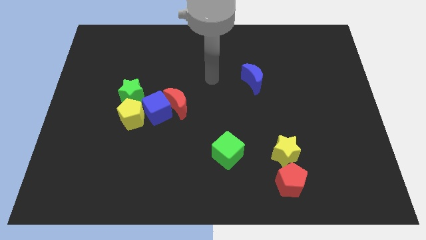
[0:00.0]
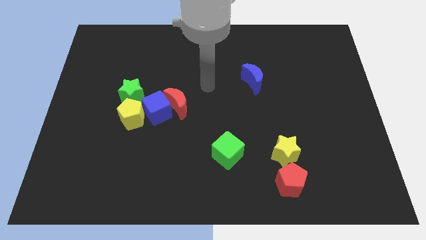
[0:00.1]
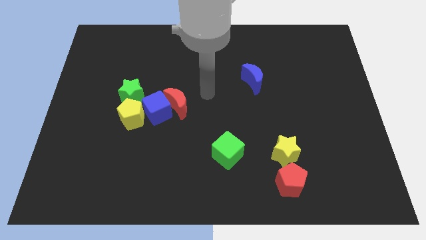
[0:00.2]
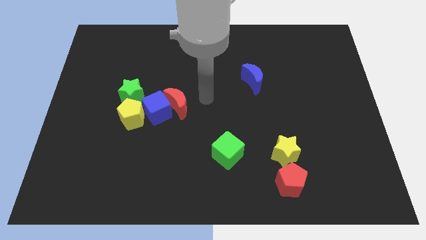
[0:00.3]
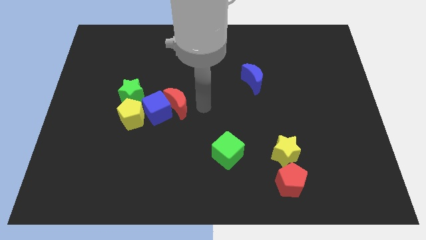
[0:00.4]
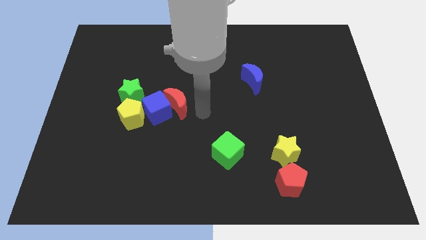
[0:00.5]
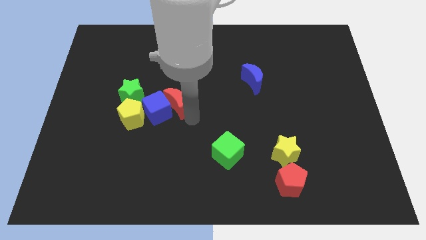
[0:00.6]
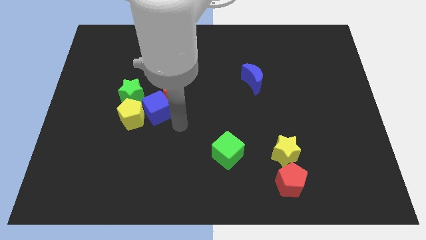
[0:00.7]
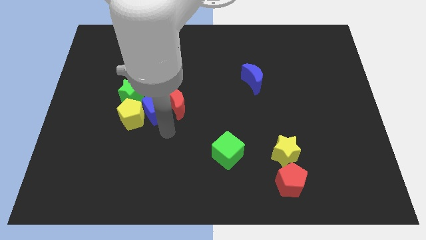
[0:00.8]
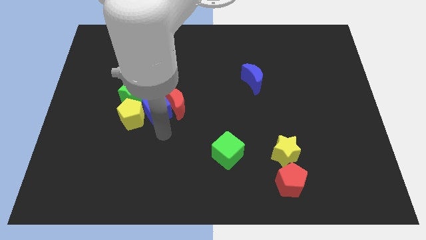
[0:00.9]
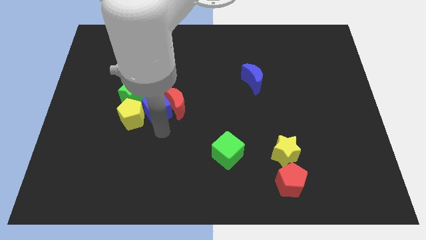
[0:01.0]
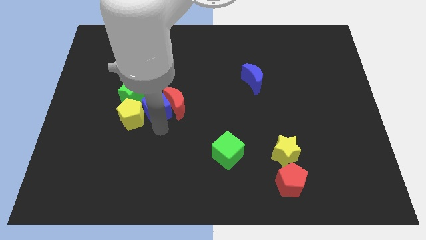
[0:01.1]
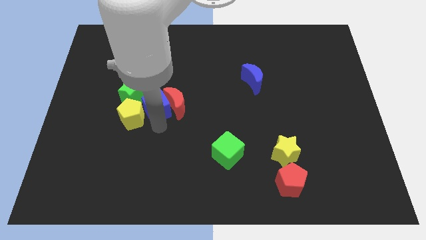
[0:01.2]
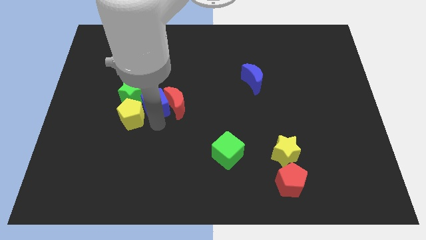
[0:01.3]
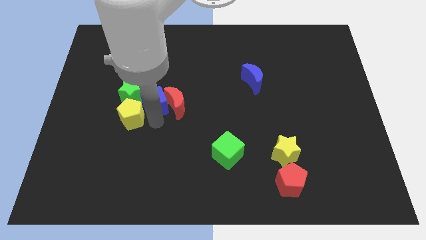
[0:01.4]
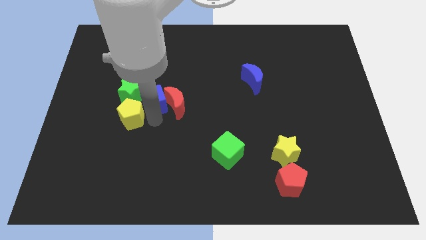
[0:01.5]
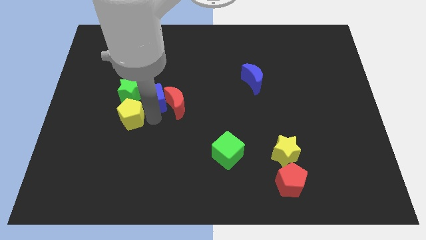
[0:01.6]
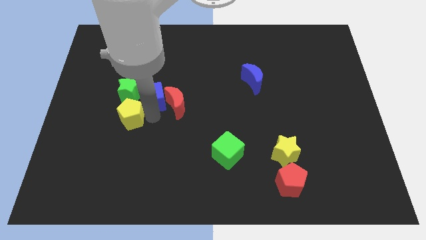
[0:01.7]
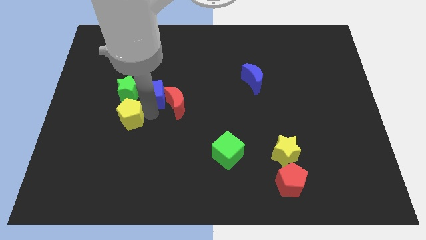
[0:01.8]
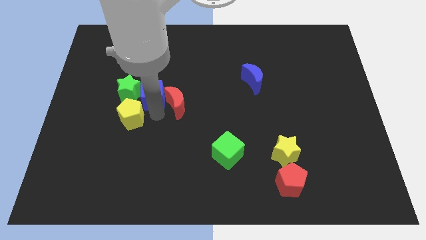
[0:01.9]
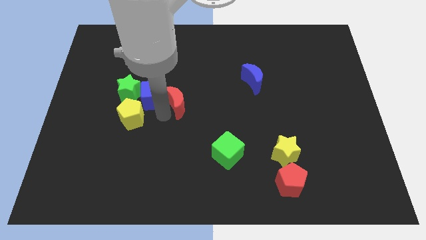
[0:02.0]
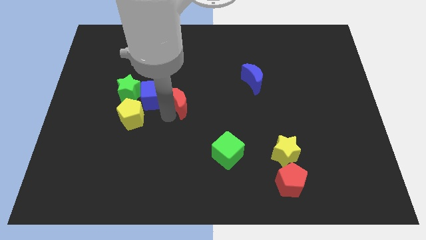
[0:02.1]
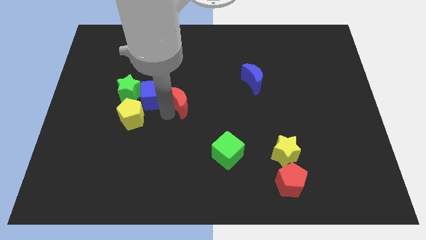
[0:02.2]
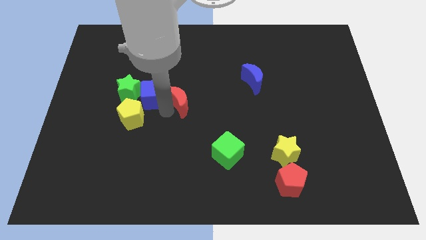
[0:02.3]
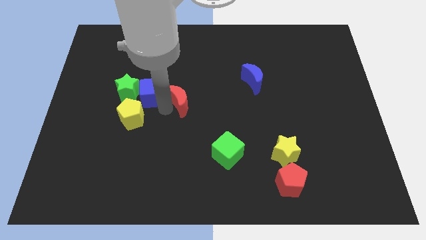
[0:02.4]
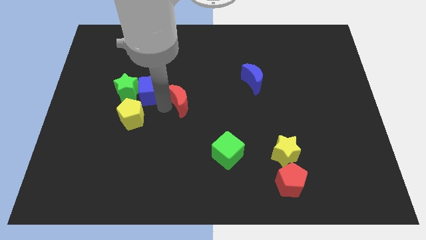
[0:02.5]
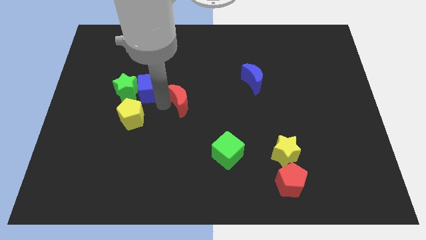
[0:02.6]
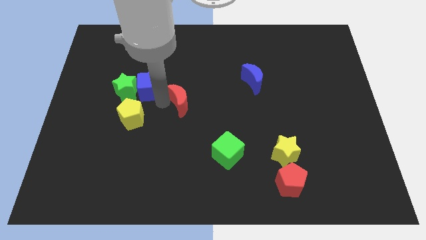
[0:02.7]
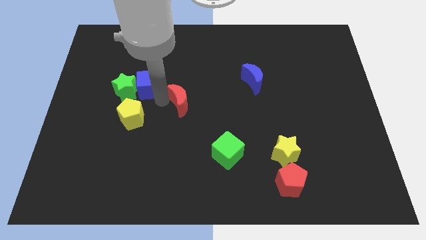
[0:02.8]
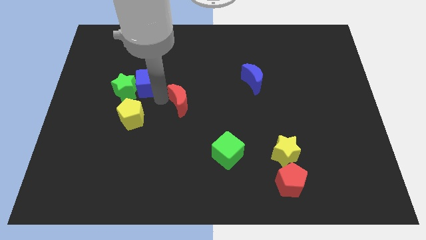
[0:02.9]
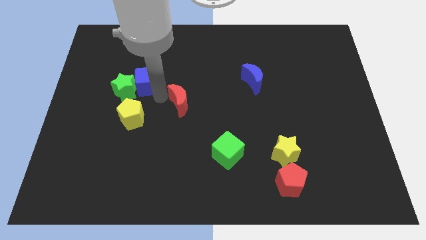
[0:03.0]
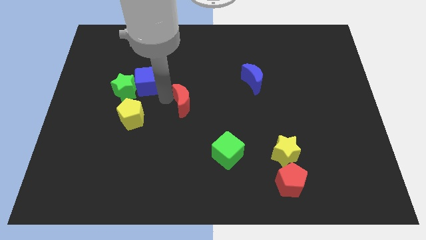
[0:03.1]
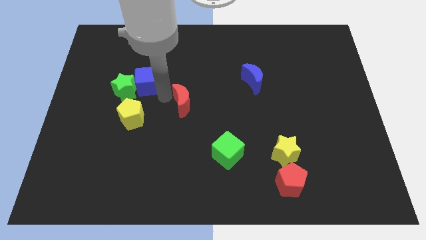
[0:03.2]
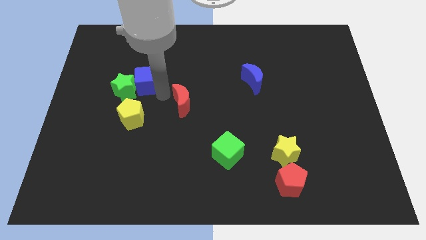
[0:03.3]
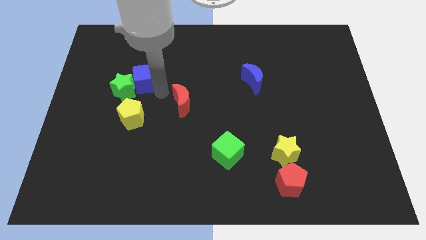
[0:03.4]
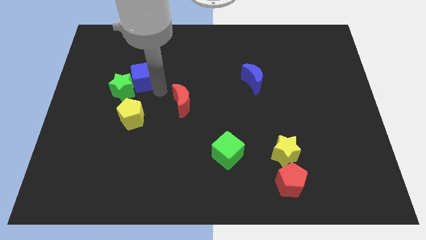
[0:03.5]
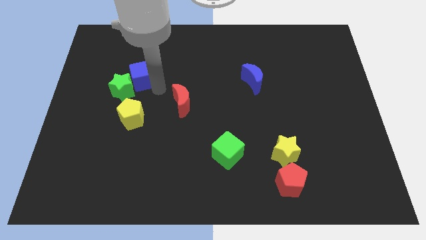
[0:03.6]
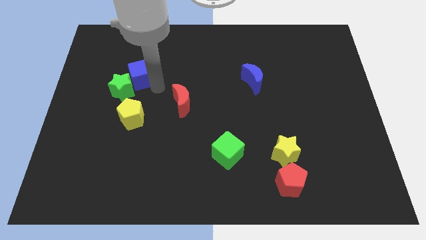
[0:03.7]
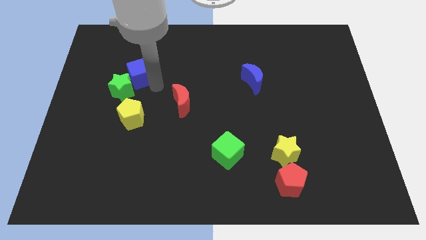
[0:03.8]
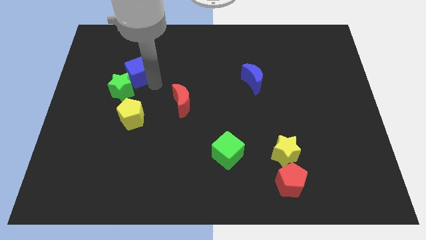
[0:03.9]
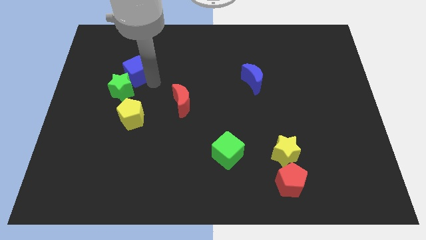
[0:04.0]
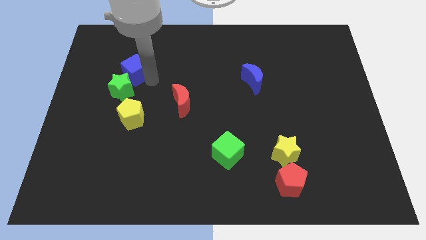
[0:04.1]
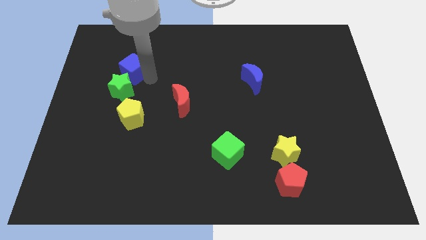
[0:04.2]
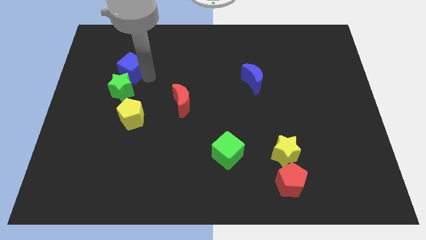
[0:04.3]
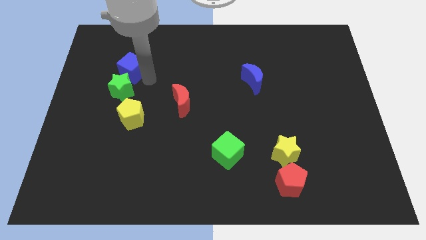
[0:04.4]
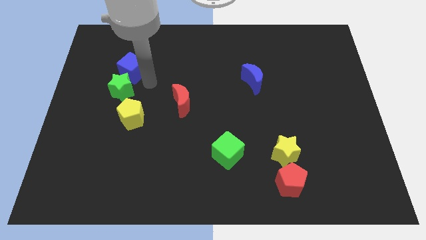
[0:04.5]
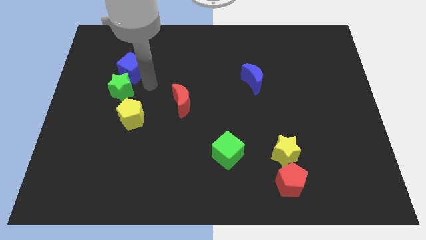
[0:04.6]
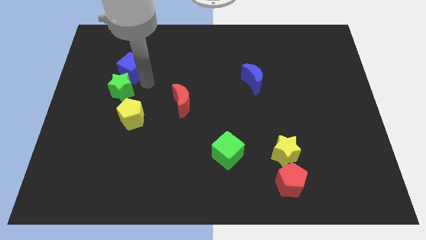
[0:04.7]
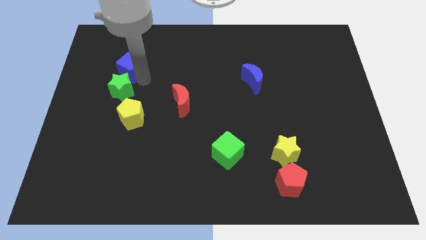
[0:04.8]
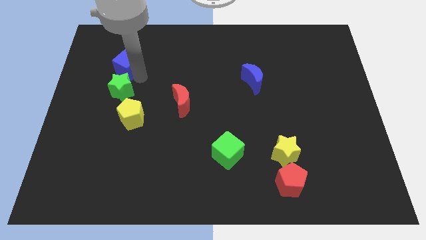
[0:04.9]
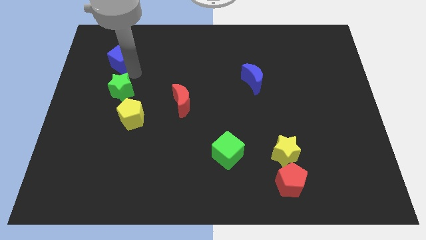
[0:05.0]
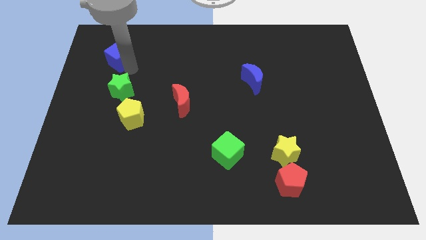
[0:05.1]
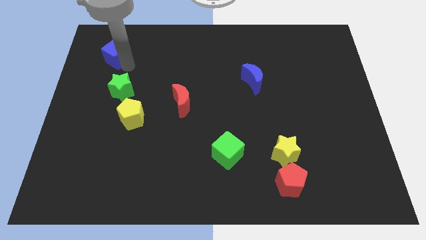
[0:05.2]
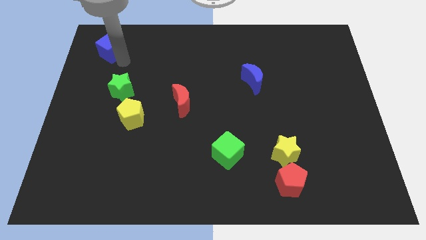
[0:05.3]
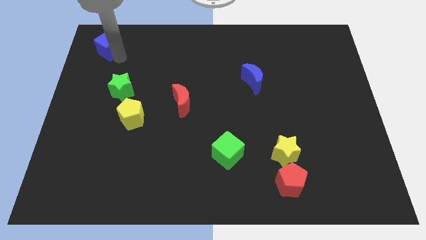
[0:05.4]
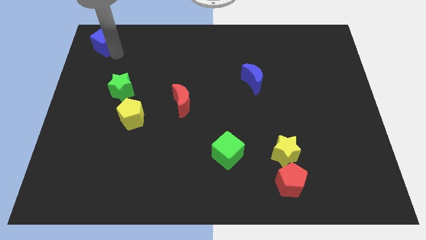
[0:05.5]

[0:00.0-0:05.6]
put the blue cube to the top left

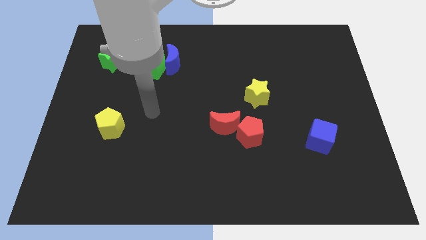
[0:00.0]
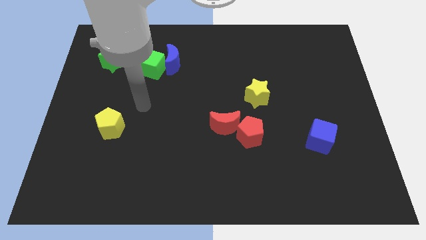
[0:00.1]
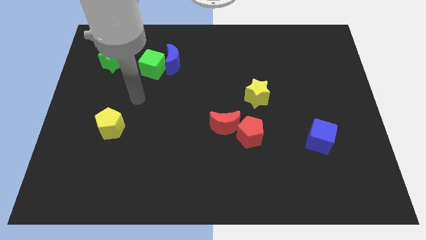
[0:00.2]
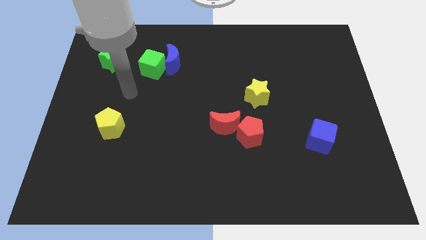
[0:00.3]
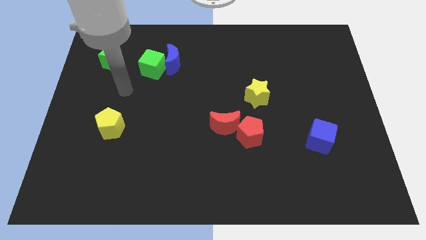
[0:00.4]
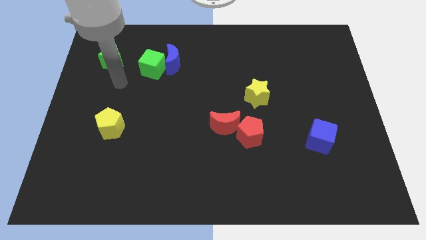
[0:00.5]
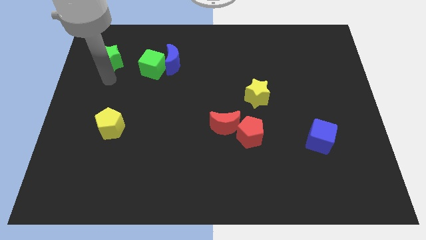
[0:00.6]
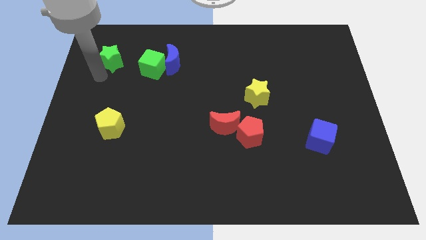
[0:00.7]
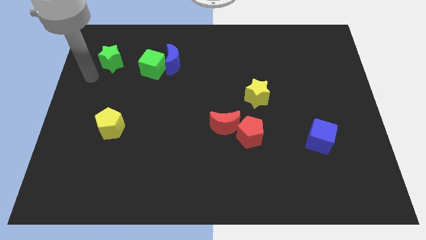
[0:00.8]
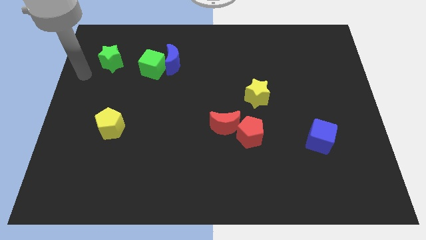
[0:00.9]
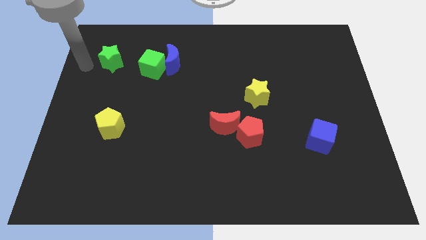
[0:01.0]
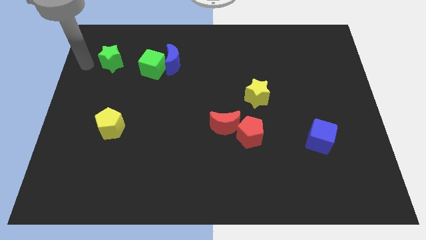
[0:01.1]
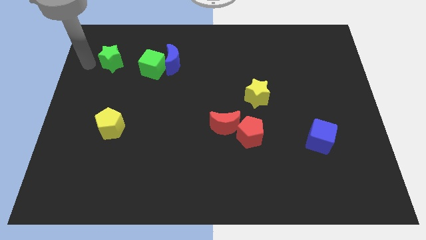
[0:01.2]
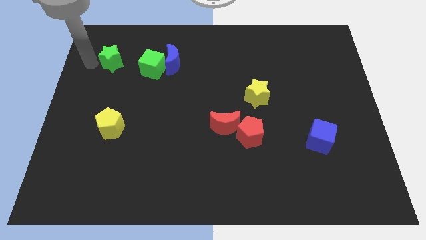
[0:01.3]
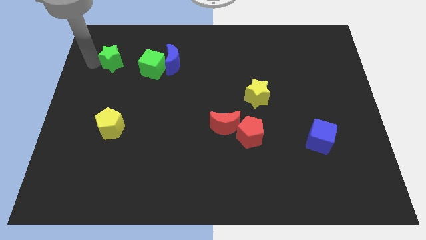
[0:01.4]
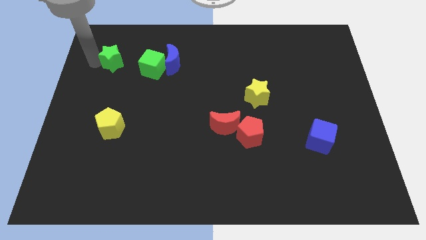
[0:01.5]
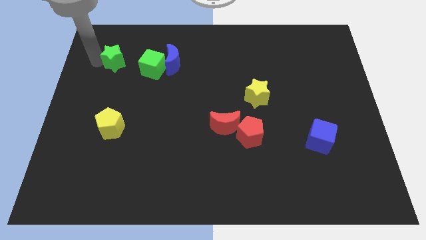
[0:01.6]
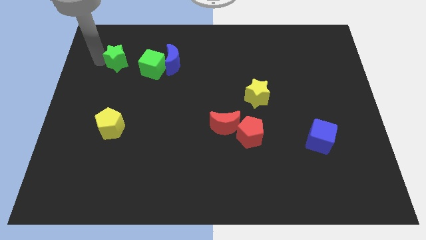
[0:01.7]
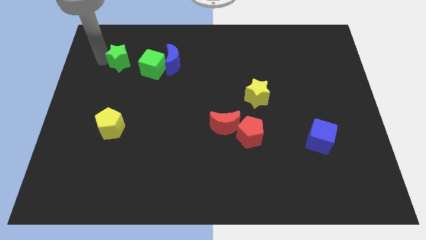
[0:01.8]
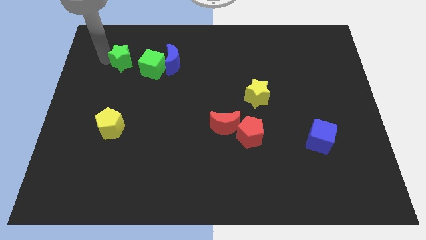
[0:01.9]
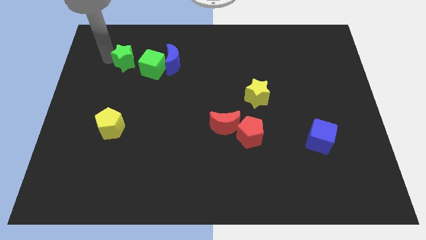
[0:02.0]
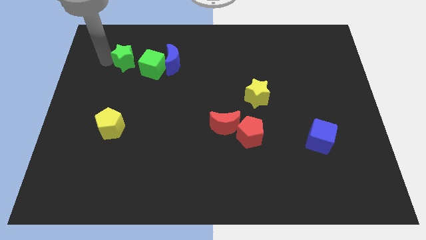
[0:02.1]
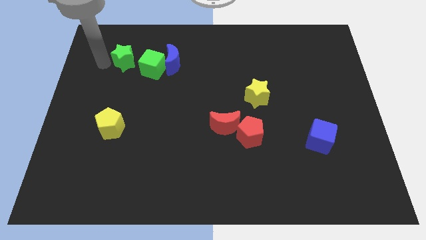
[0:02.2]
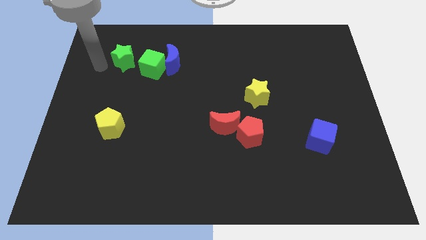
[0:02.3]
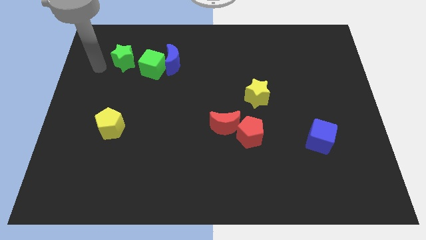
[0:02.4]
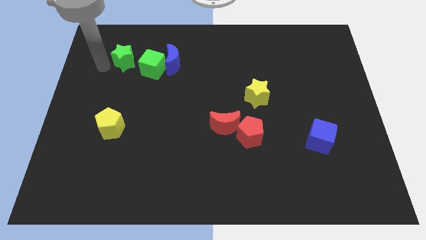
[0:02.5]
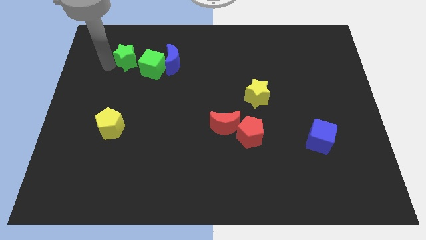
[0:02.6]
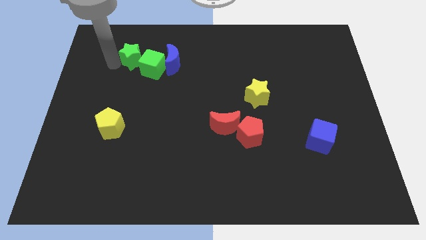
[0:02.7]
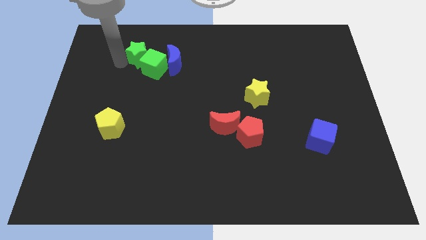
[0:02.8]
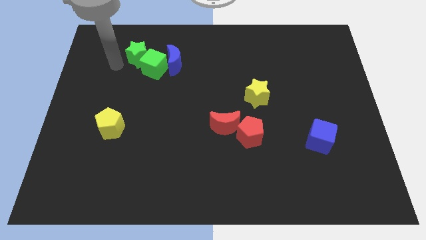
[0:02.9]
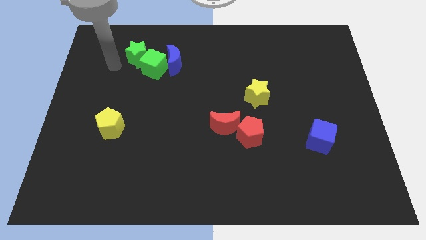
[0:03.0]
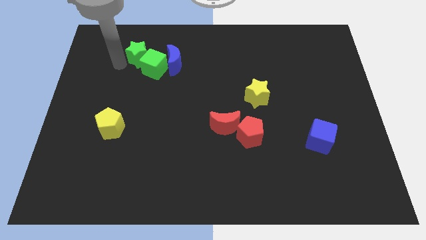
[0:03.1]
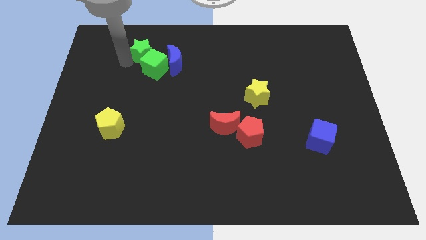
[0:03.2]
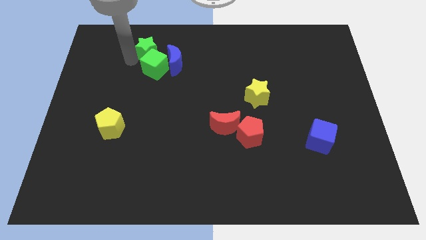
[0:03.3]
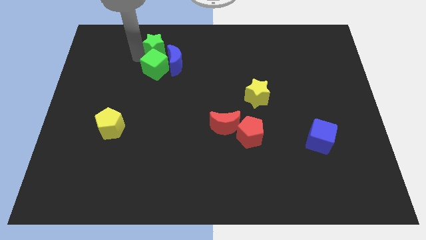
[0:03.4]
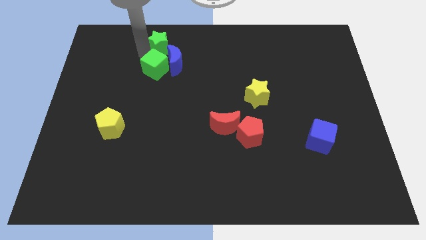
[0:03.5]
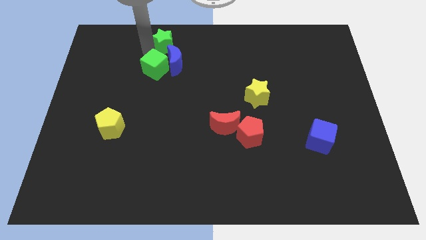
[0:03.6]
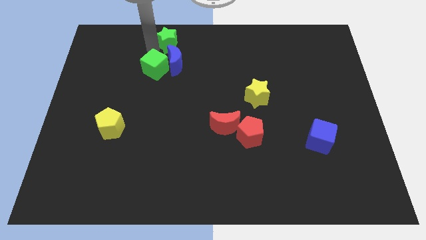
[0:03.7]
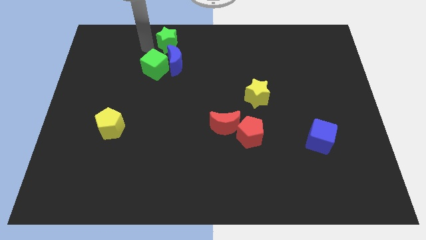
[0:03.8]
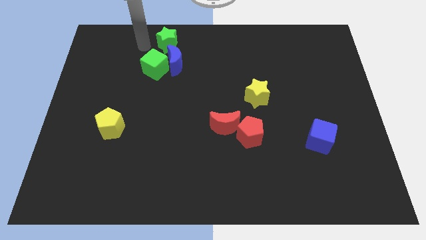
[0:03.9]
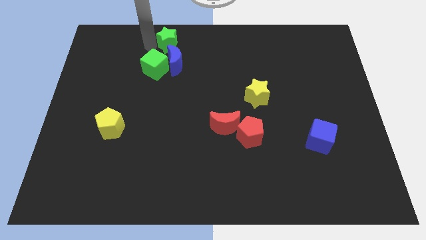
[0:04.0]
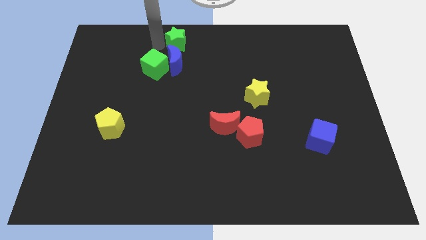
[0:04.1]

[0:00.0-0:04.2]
push the green star to the towards your base
